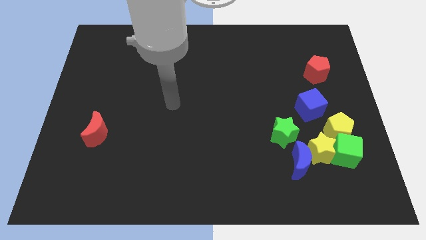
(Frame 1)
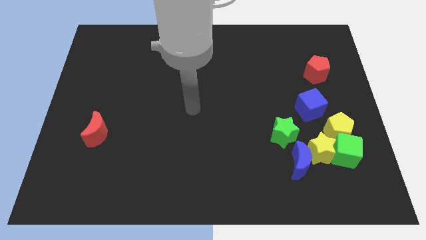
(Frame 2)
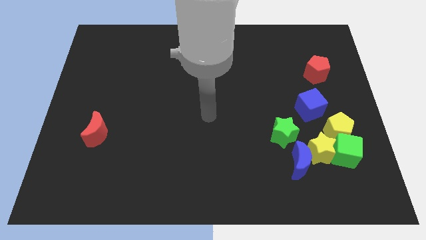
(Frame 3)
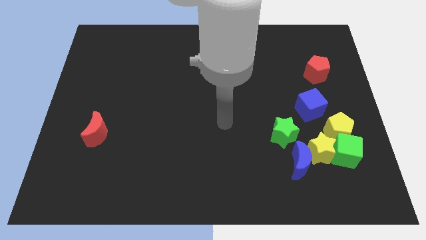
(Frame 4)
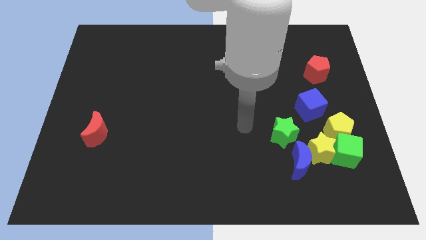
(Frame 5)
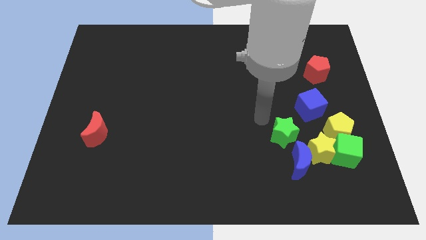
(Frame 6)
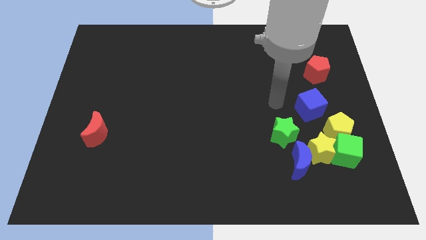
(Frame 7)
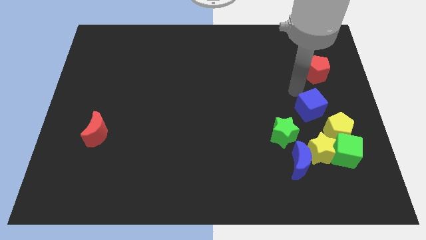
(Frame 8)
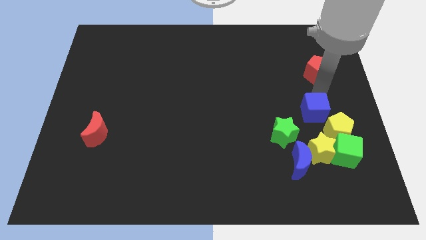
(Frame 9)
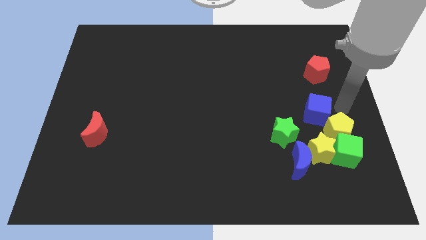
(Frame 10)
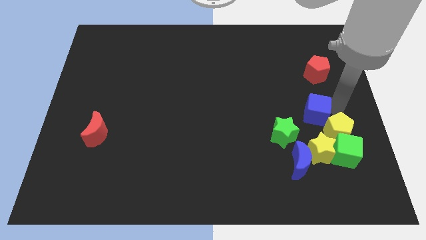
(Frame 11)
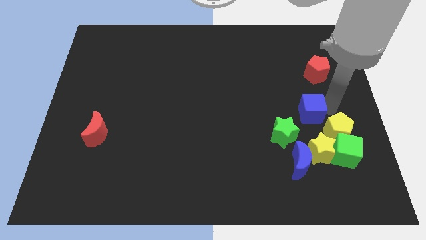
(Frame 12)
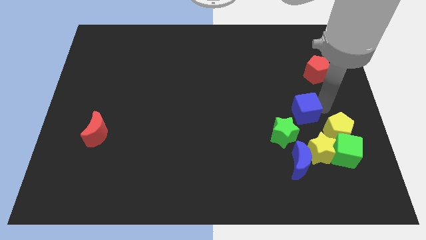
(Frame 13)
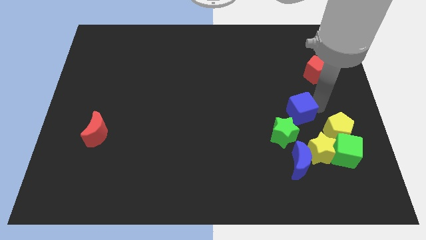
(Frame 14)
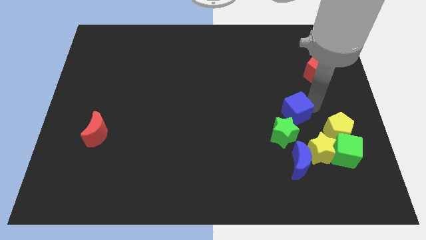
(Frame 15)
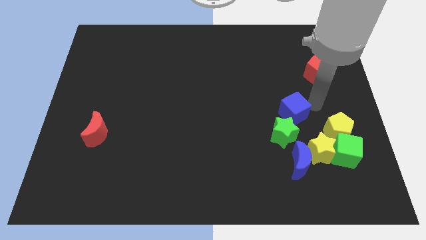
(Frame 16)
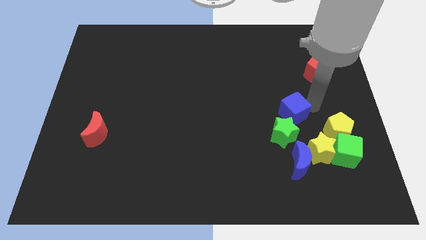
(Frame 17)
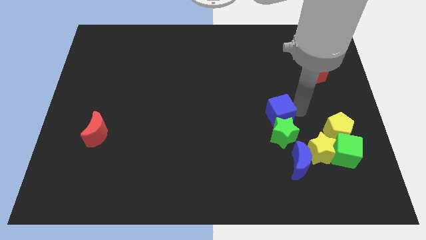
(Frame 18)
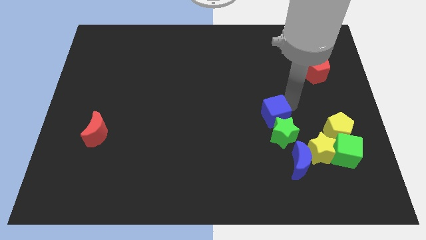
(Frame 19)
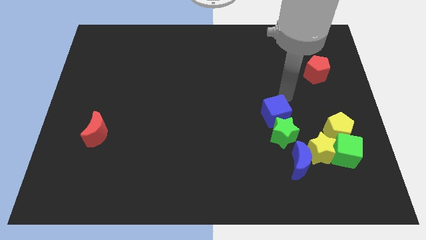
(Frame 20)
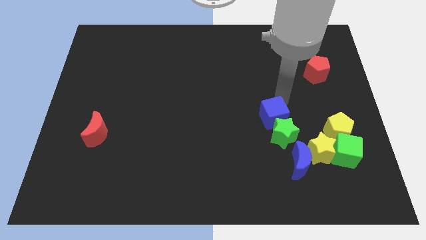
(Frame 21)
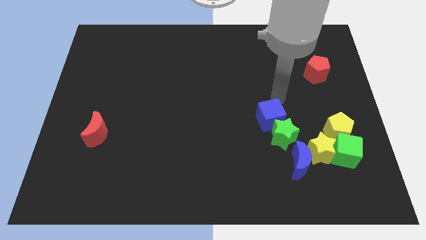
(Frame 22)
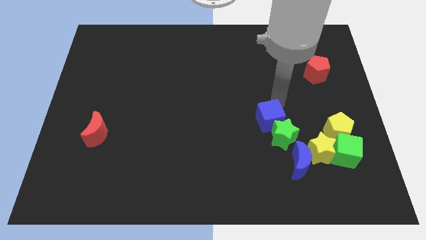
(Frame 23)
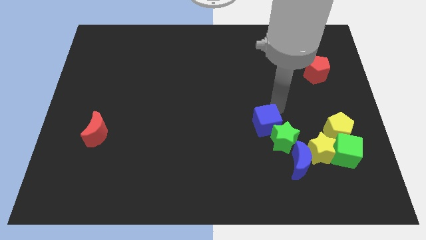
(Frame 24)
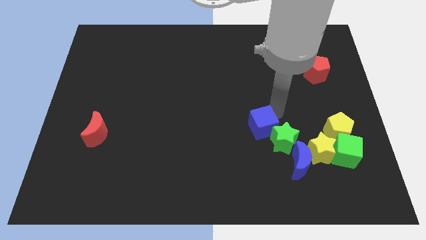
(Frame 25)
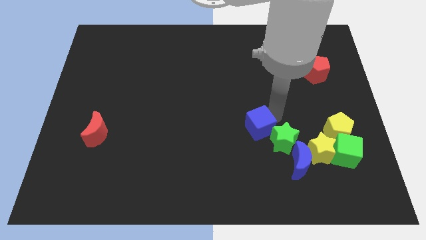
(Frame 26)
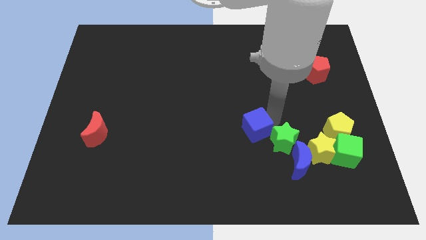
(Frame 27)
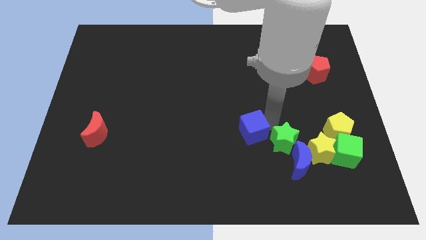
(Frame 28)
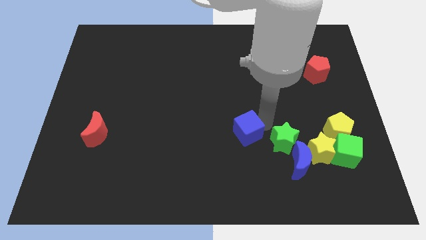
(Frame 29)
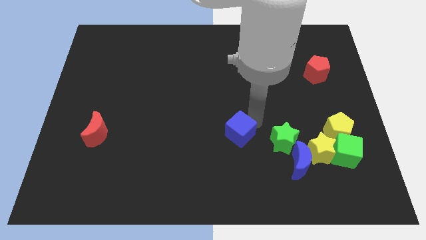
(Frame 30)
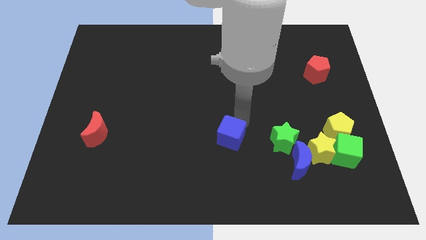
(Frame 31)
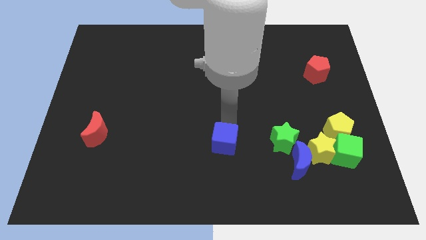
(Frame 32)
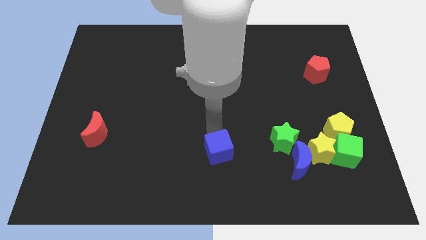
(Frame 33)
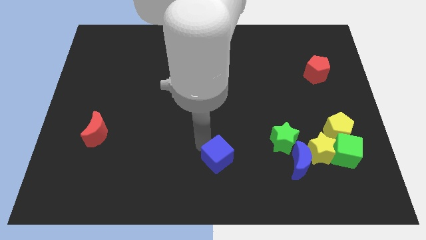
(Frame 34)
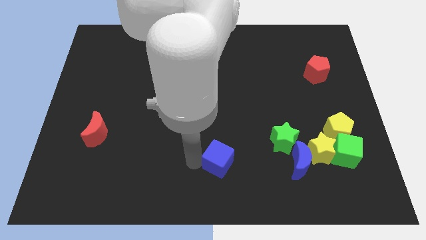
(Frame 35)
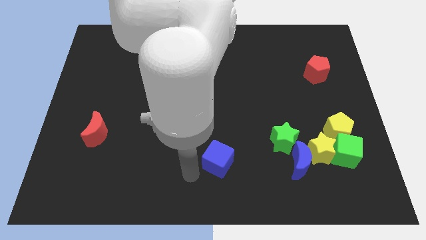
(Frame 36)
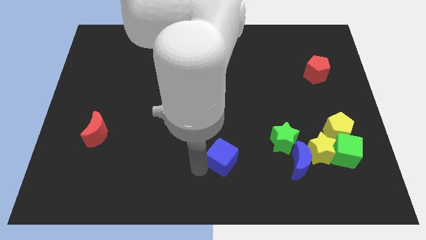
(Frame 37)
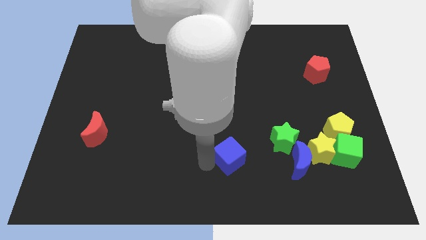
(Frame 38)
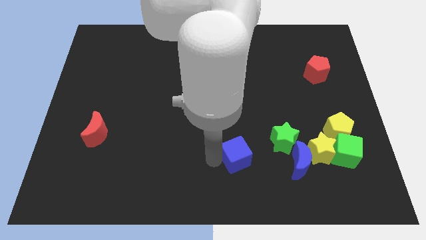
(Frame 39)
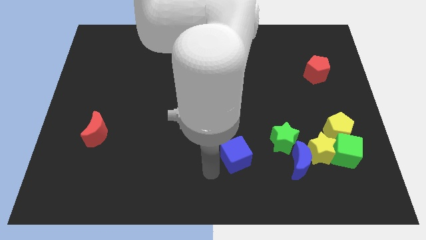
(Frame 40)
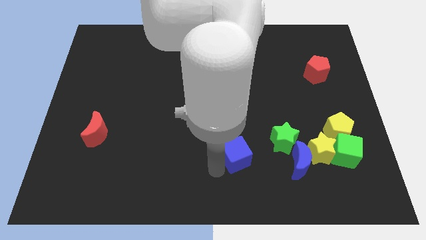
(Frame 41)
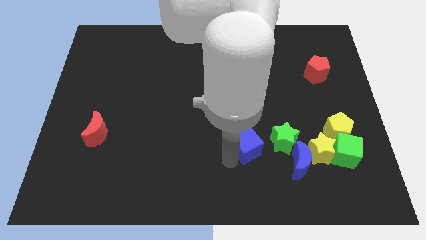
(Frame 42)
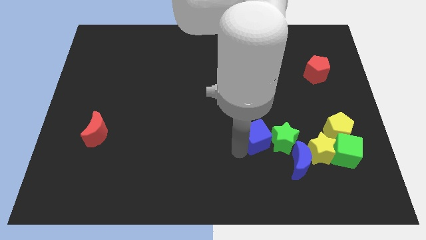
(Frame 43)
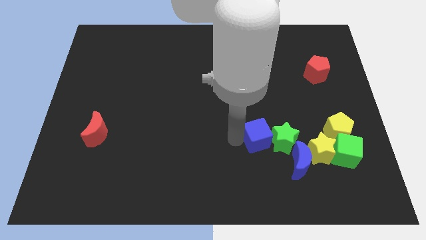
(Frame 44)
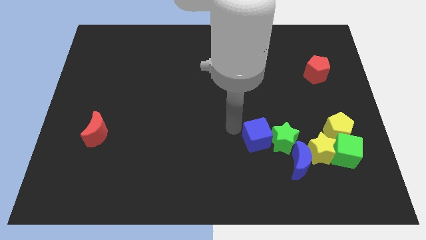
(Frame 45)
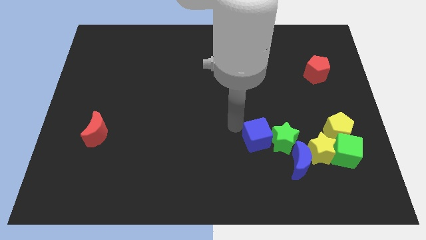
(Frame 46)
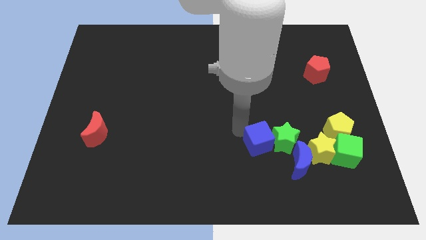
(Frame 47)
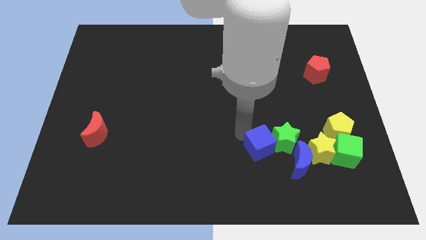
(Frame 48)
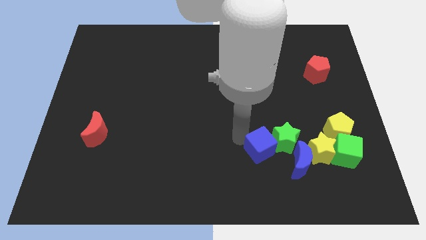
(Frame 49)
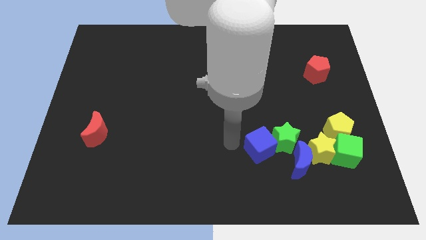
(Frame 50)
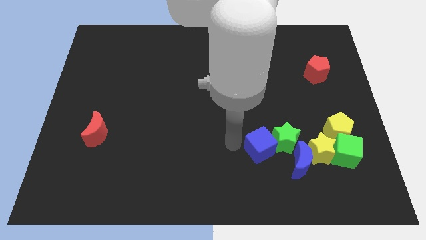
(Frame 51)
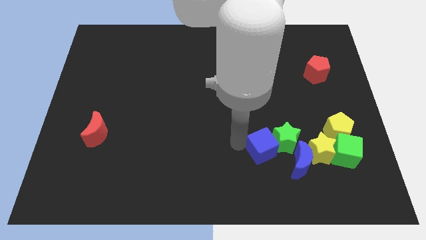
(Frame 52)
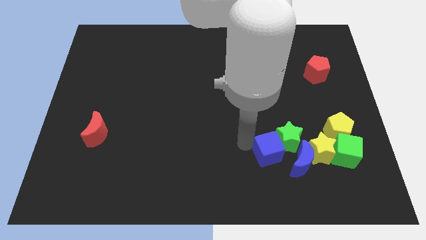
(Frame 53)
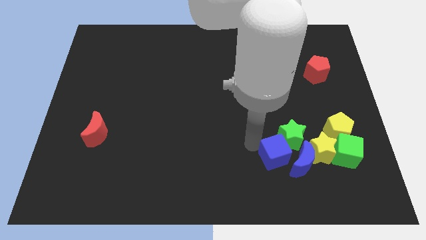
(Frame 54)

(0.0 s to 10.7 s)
push the blue cube next to the blue moon

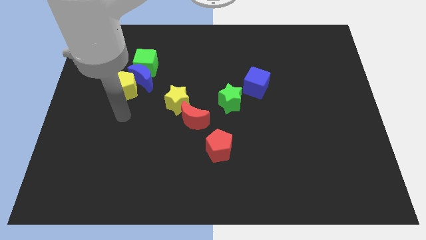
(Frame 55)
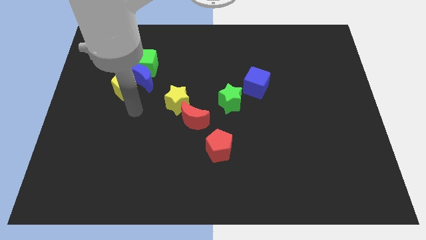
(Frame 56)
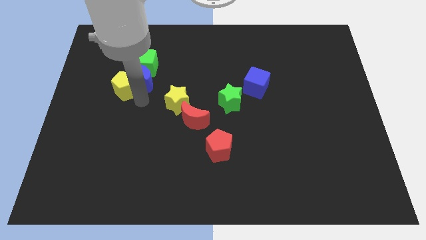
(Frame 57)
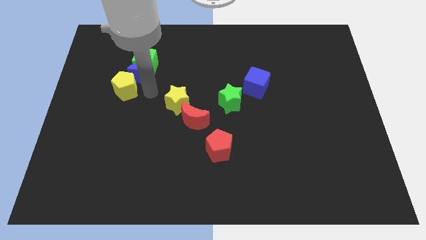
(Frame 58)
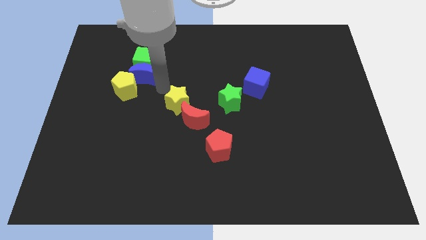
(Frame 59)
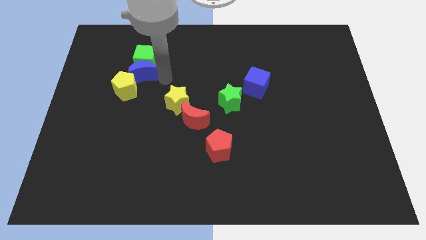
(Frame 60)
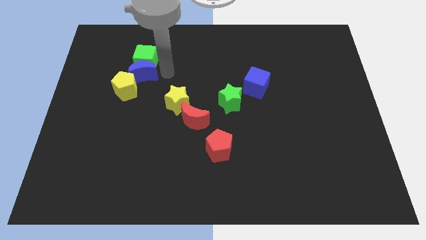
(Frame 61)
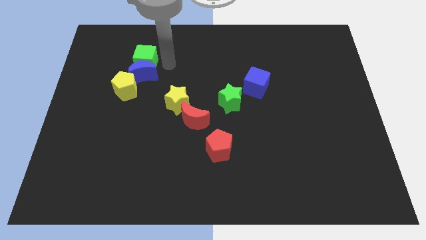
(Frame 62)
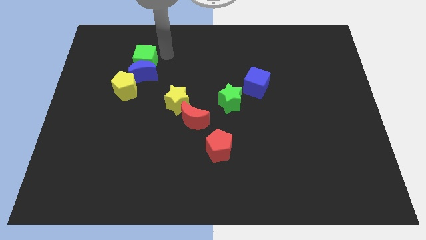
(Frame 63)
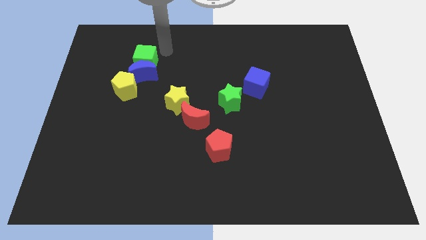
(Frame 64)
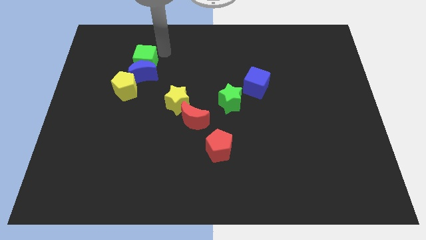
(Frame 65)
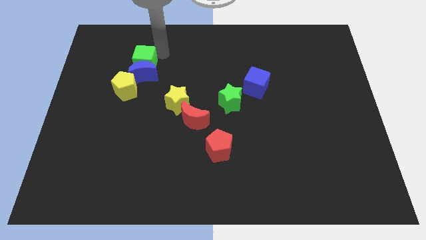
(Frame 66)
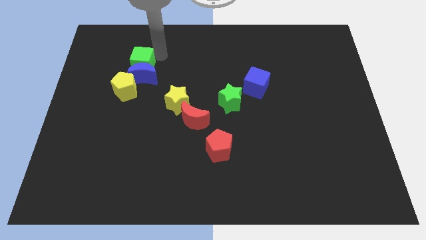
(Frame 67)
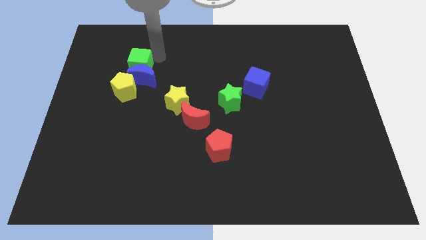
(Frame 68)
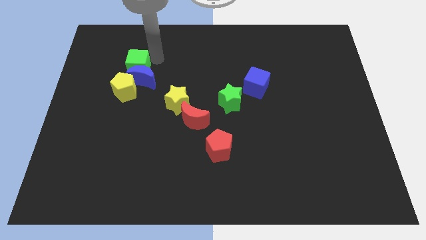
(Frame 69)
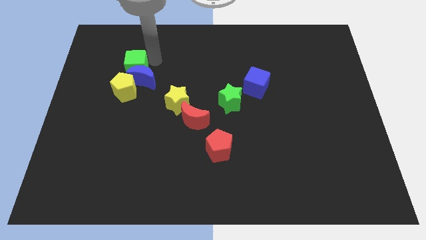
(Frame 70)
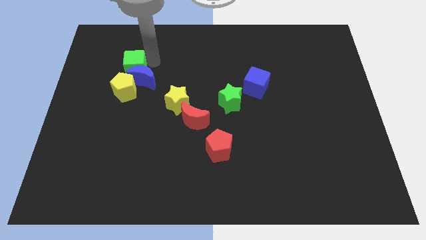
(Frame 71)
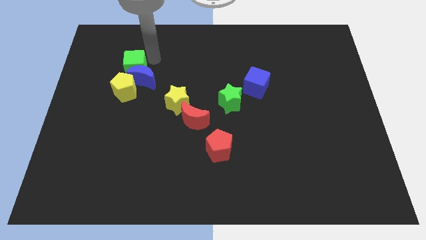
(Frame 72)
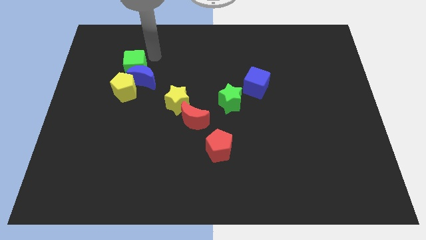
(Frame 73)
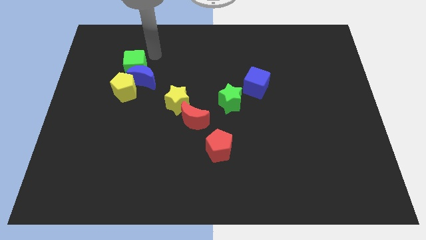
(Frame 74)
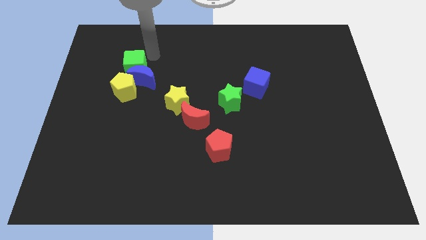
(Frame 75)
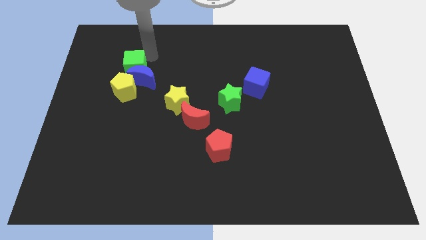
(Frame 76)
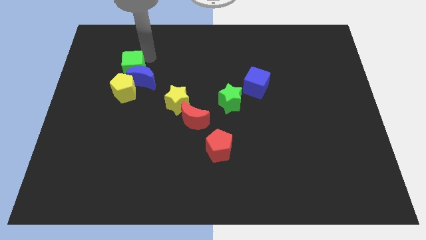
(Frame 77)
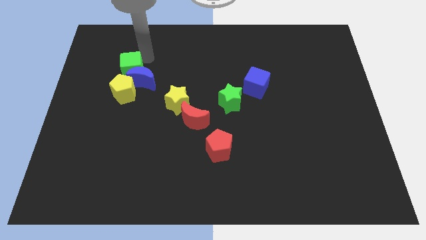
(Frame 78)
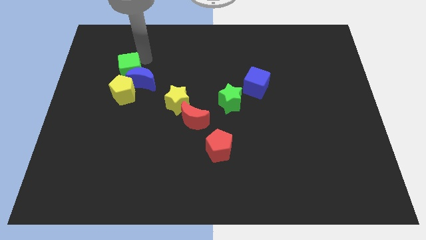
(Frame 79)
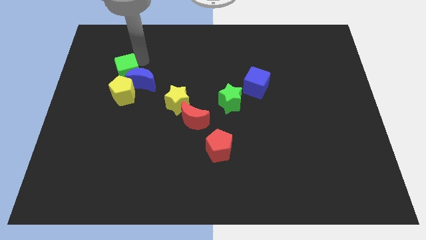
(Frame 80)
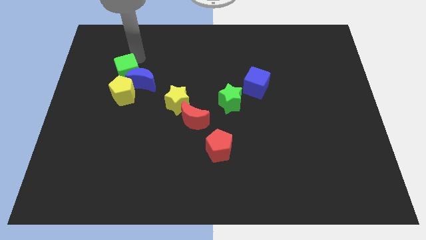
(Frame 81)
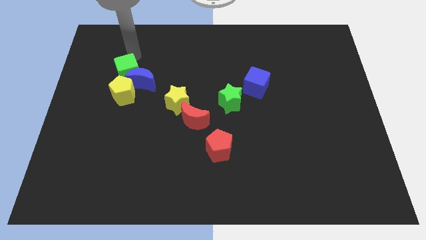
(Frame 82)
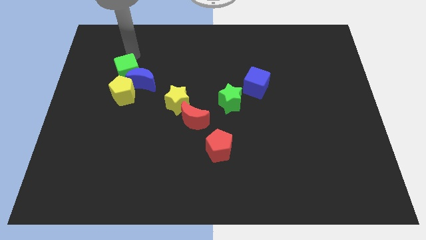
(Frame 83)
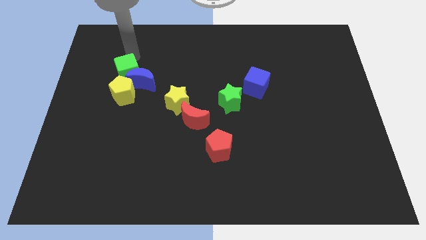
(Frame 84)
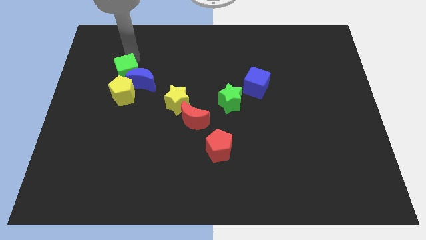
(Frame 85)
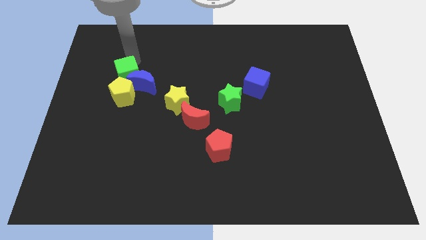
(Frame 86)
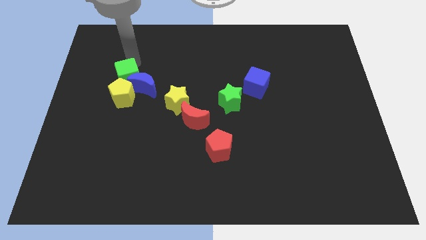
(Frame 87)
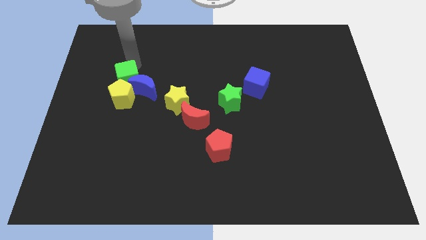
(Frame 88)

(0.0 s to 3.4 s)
slide the green cube next to the yellow pentagon
